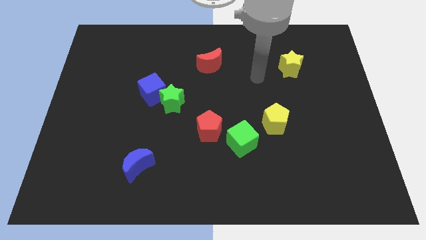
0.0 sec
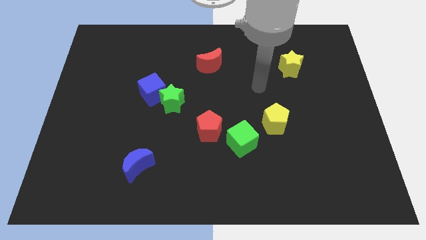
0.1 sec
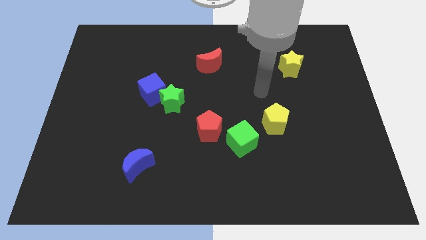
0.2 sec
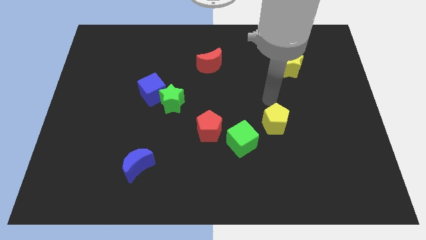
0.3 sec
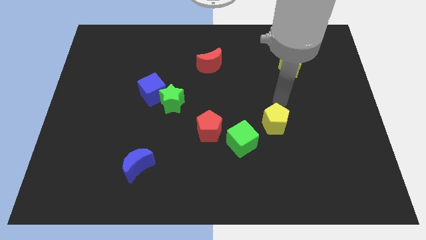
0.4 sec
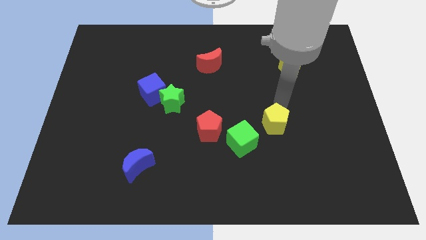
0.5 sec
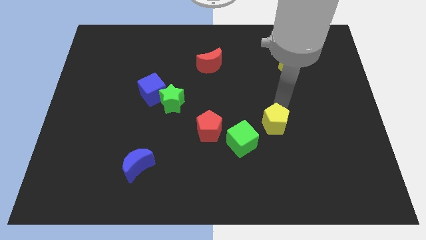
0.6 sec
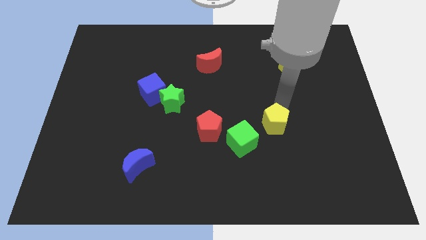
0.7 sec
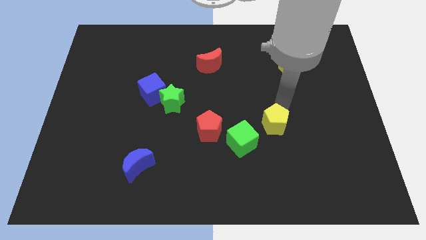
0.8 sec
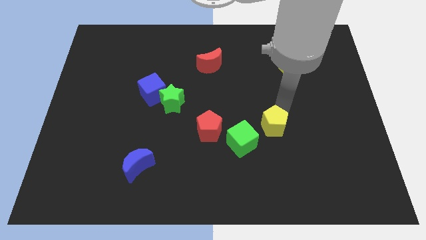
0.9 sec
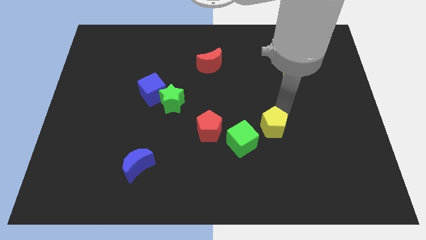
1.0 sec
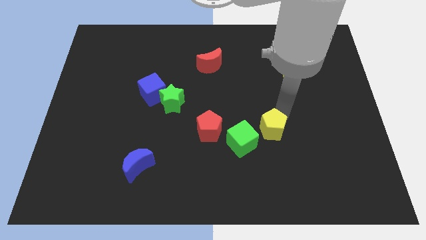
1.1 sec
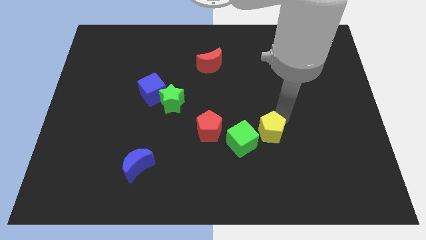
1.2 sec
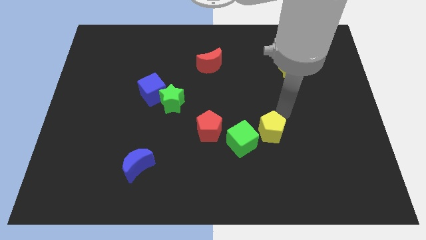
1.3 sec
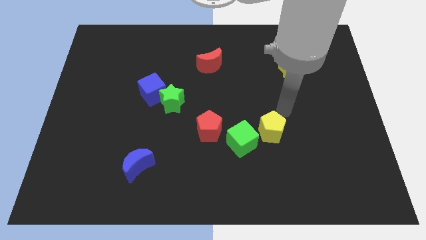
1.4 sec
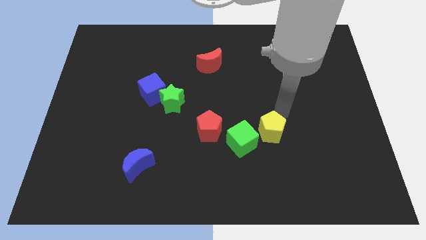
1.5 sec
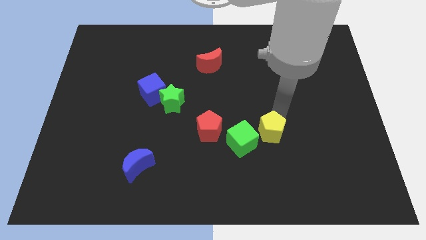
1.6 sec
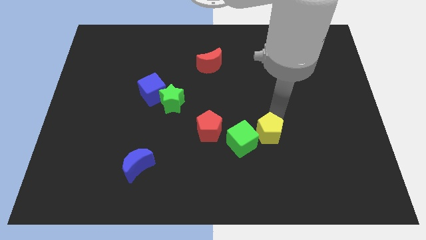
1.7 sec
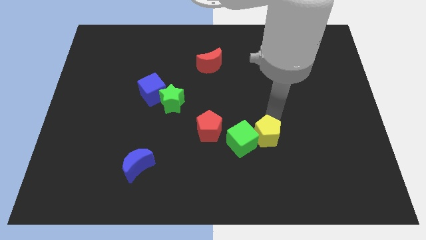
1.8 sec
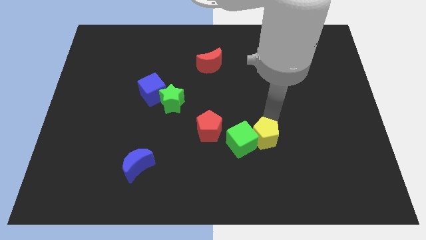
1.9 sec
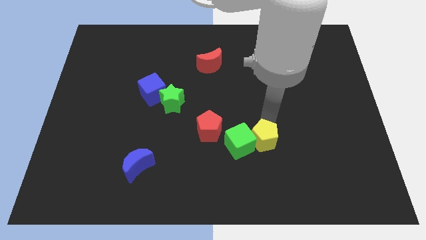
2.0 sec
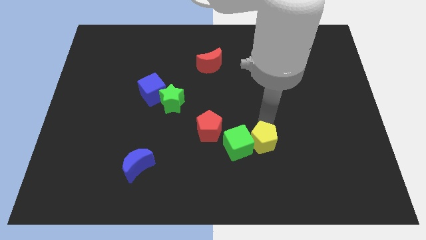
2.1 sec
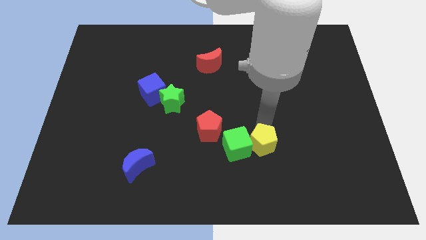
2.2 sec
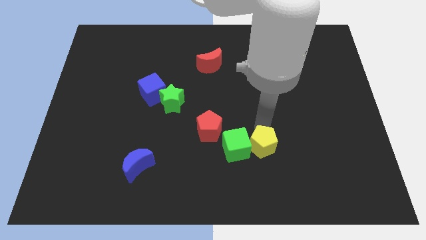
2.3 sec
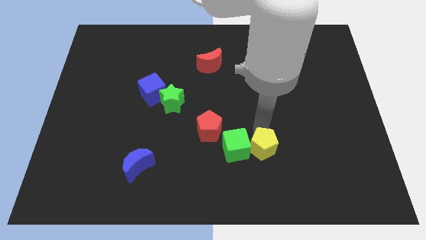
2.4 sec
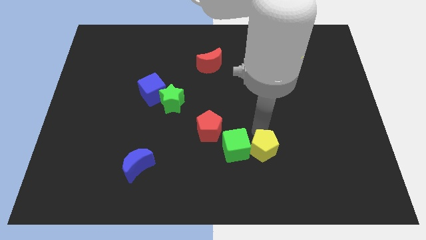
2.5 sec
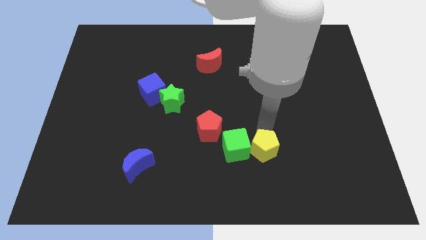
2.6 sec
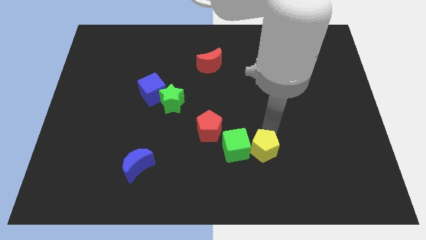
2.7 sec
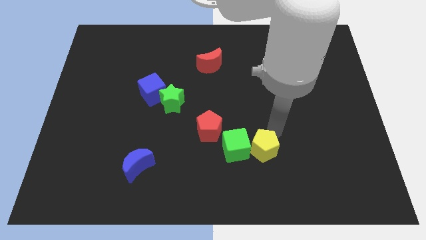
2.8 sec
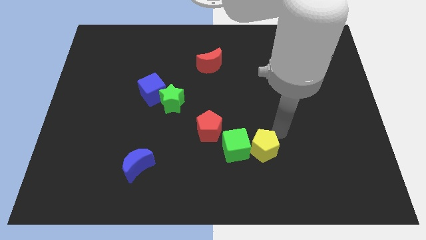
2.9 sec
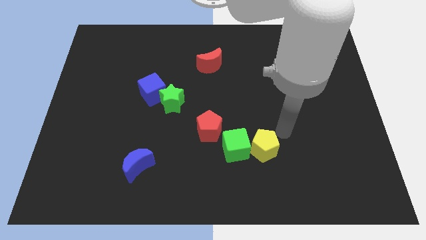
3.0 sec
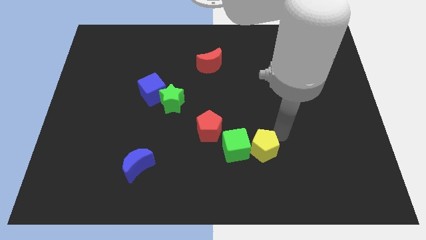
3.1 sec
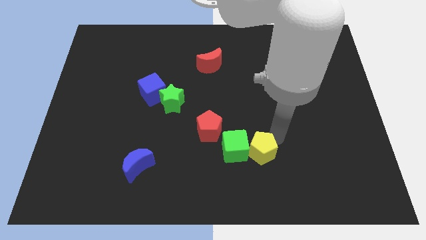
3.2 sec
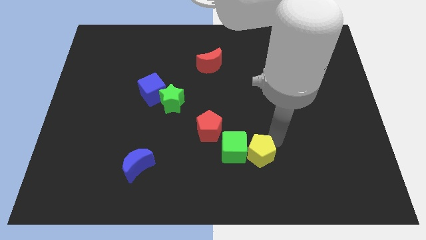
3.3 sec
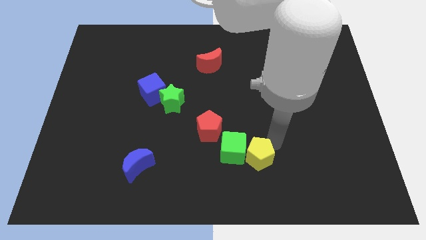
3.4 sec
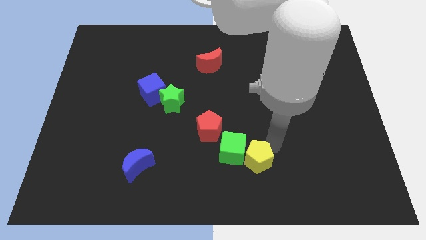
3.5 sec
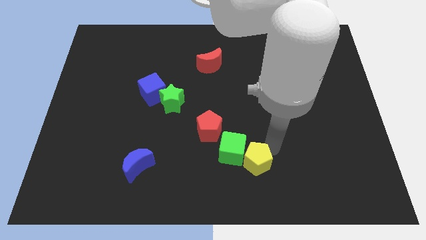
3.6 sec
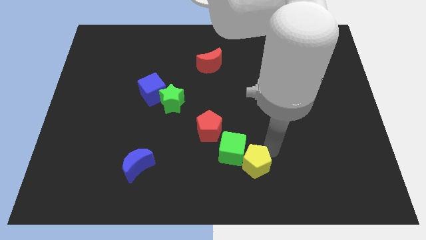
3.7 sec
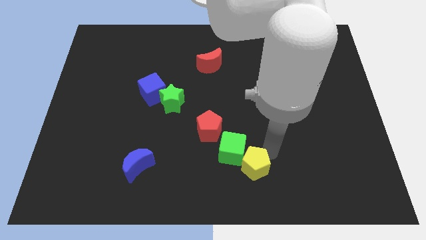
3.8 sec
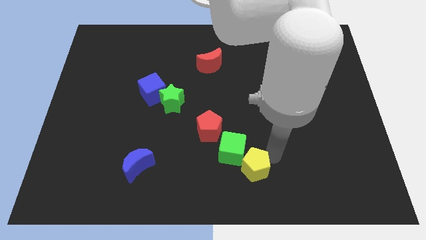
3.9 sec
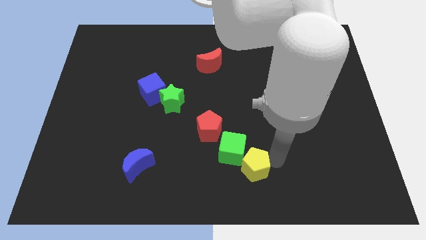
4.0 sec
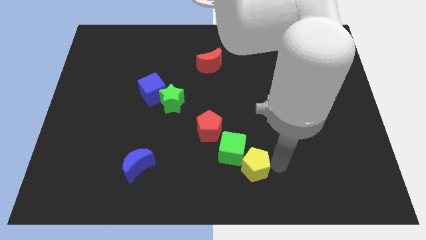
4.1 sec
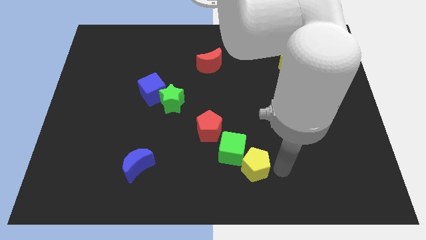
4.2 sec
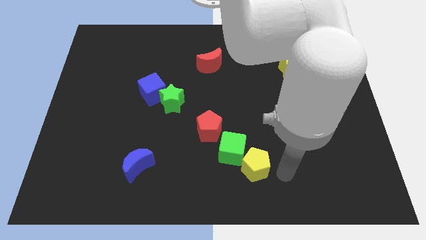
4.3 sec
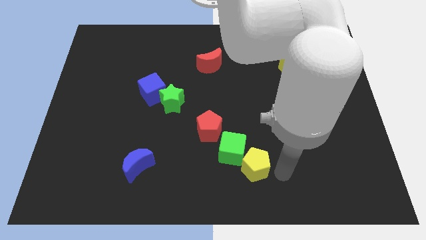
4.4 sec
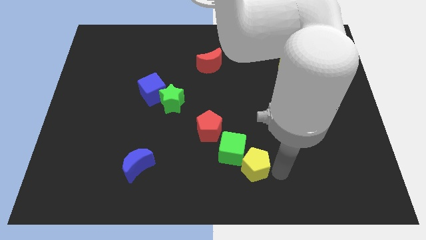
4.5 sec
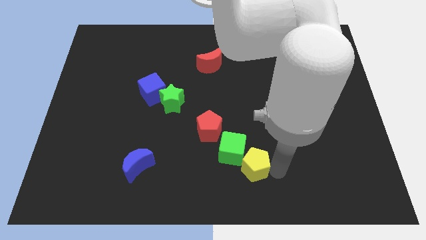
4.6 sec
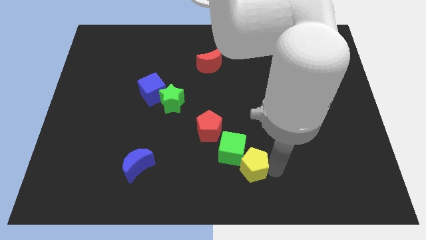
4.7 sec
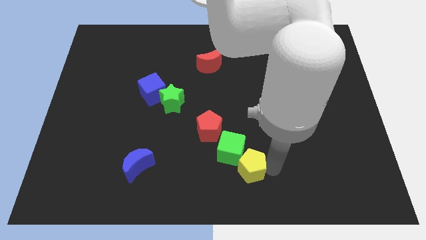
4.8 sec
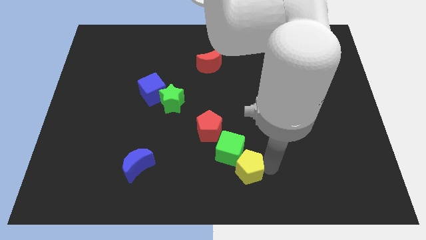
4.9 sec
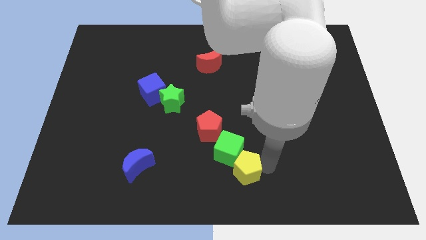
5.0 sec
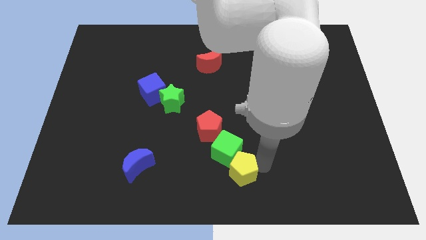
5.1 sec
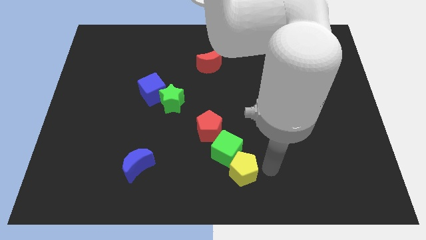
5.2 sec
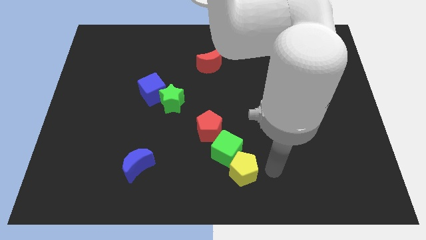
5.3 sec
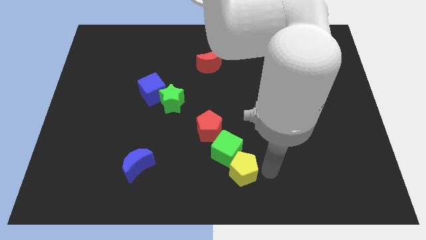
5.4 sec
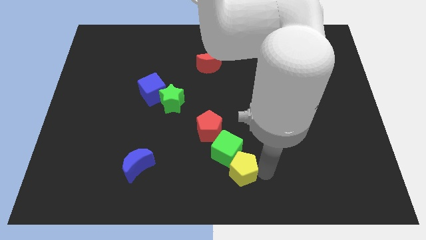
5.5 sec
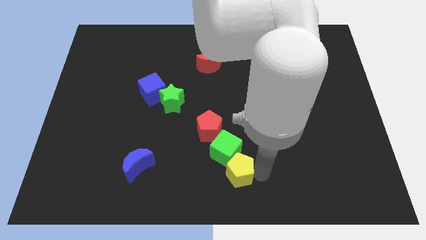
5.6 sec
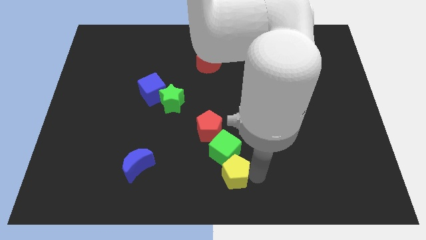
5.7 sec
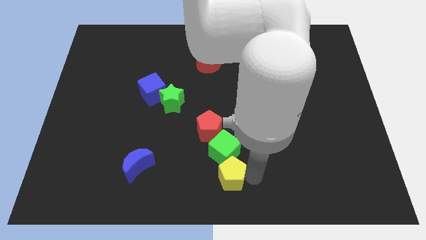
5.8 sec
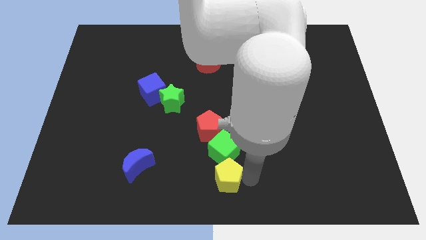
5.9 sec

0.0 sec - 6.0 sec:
push the yellow pentagon to the bottom left of the green cube

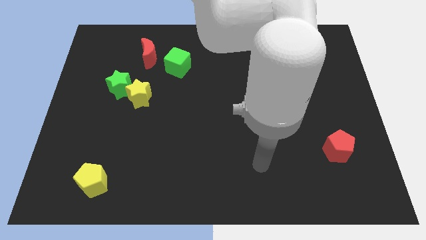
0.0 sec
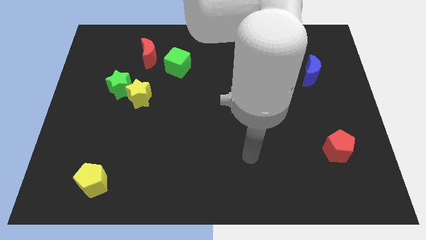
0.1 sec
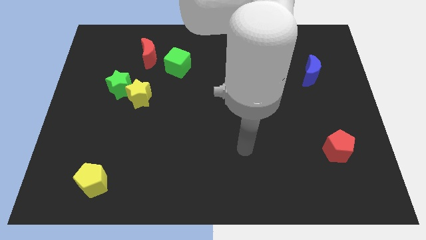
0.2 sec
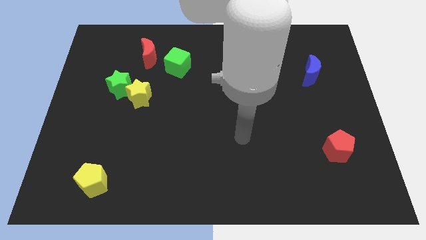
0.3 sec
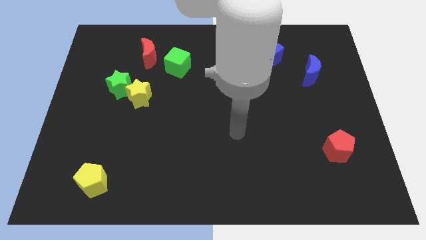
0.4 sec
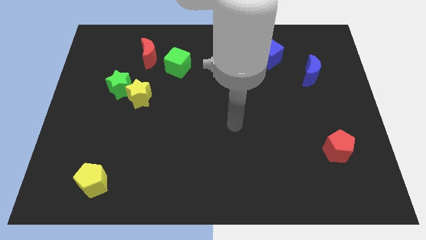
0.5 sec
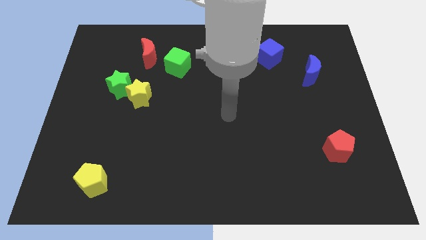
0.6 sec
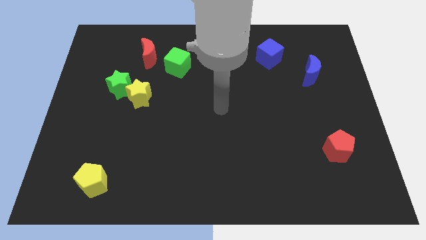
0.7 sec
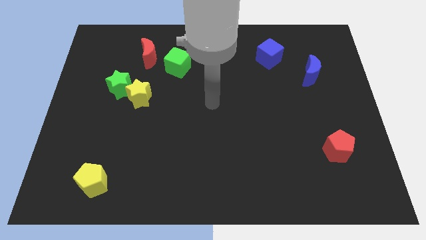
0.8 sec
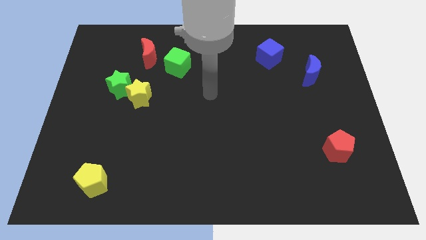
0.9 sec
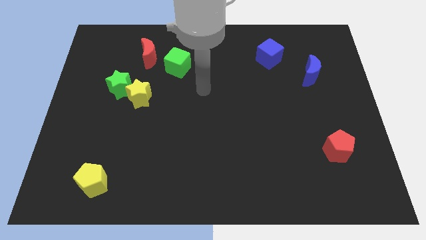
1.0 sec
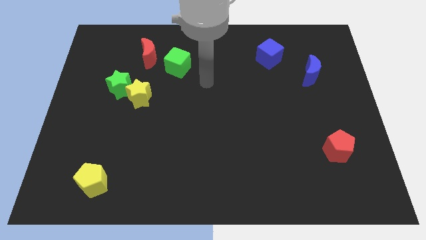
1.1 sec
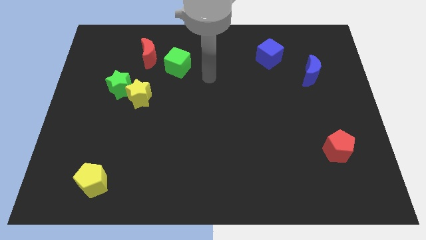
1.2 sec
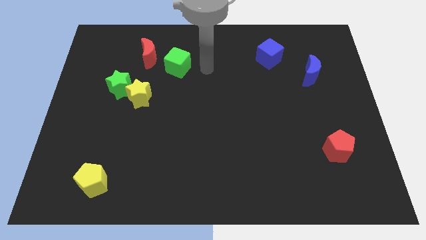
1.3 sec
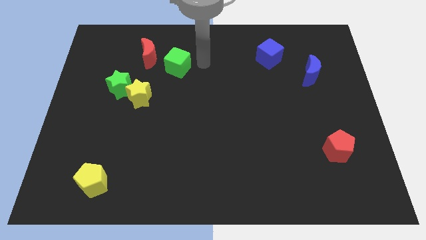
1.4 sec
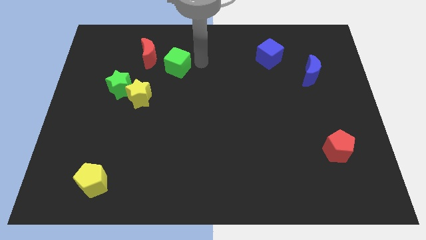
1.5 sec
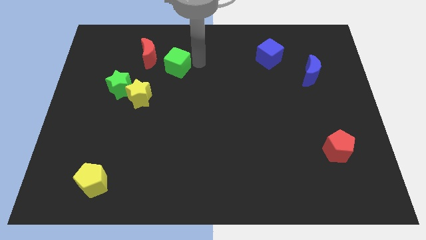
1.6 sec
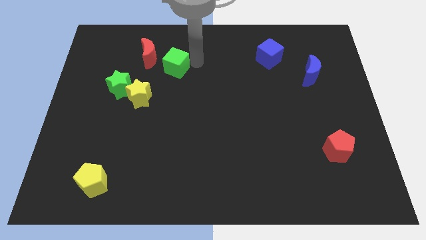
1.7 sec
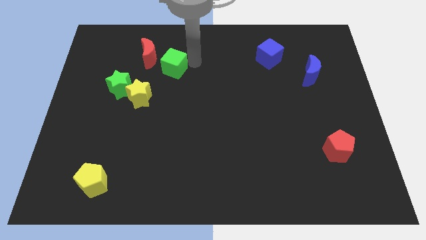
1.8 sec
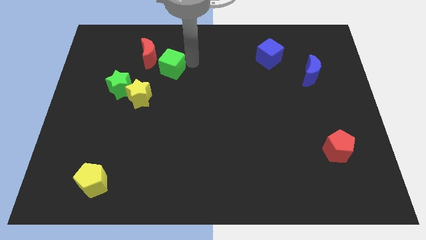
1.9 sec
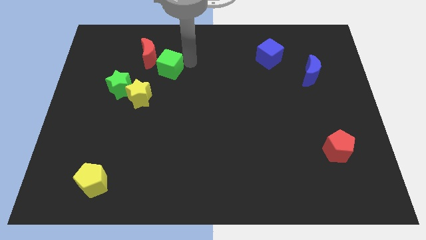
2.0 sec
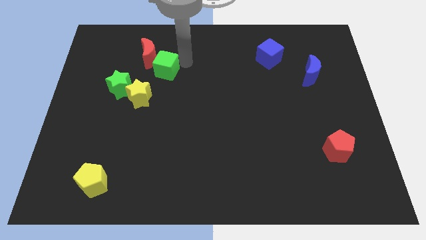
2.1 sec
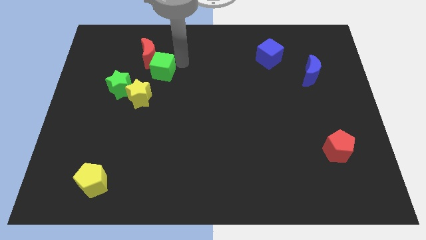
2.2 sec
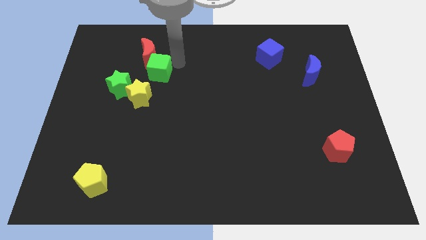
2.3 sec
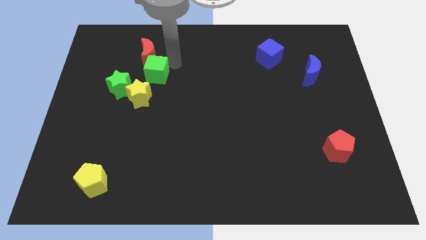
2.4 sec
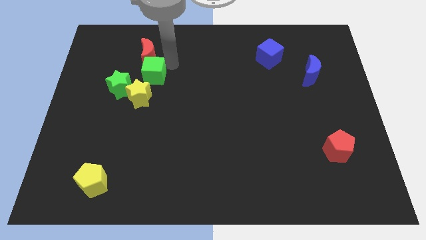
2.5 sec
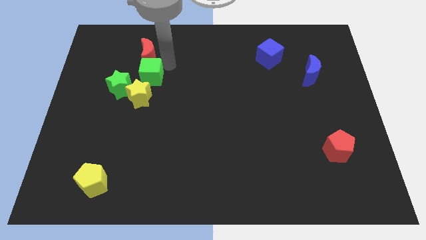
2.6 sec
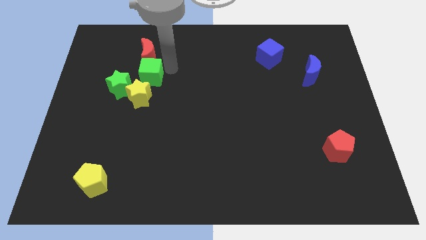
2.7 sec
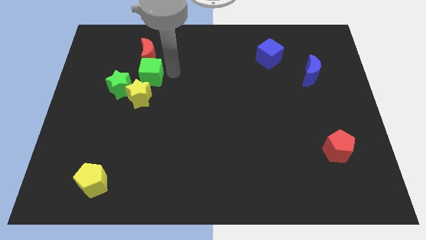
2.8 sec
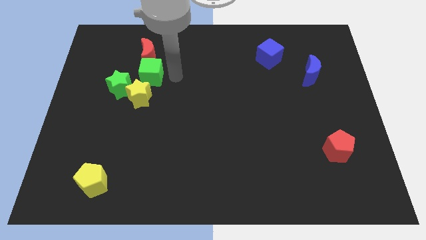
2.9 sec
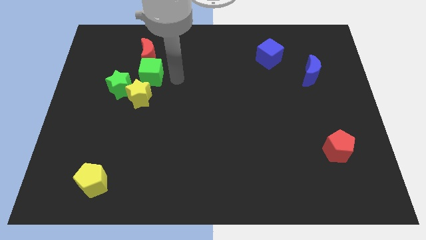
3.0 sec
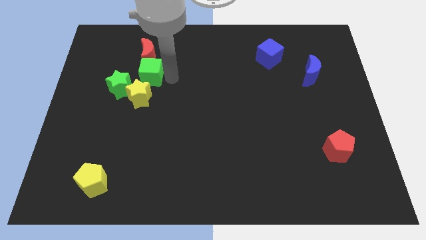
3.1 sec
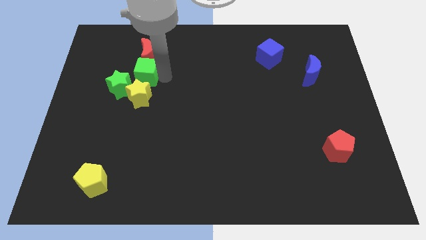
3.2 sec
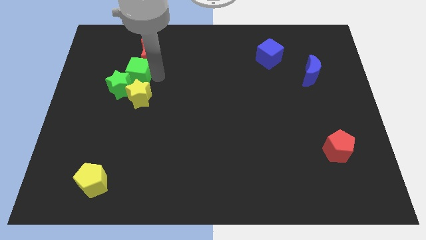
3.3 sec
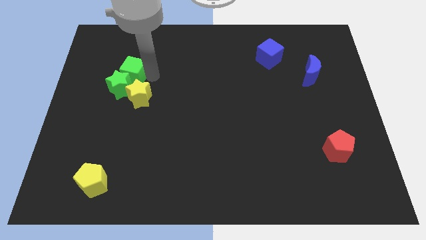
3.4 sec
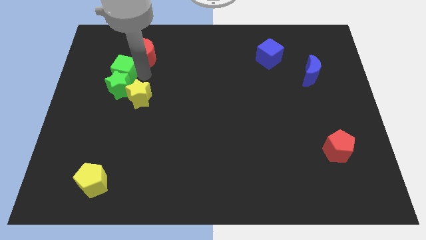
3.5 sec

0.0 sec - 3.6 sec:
slide the green cube to the top left side of the green star
